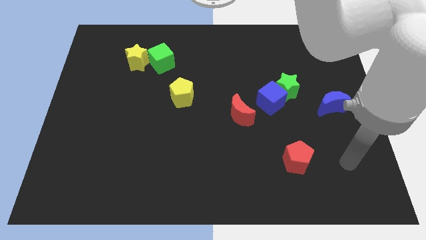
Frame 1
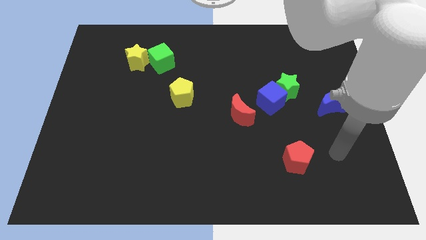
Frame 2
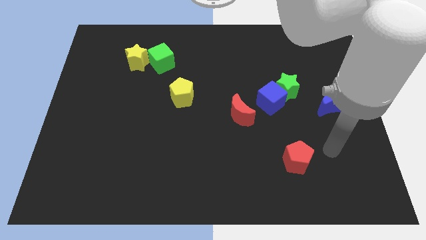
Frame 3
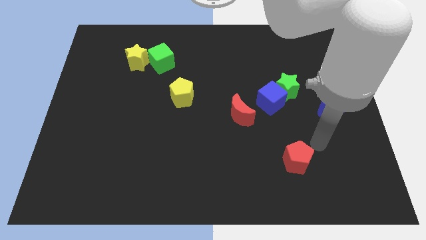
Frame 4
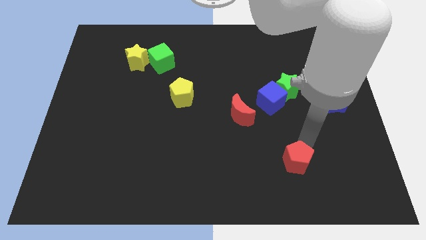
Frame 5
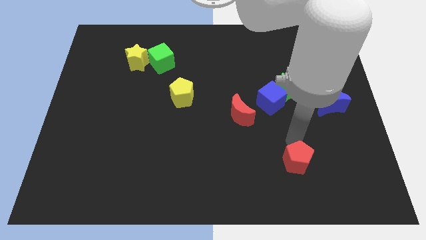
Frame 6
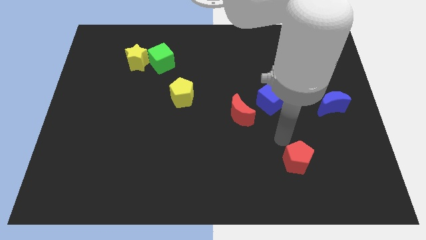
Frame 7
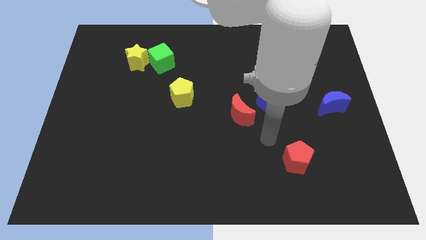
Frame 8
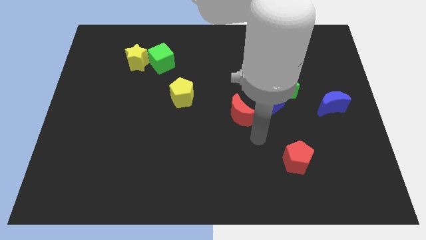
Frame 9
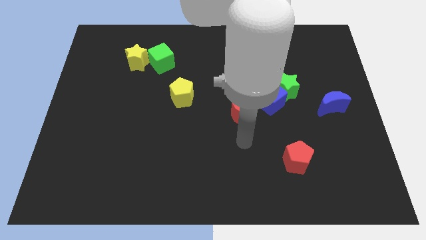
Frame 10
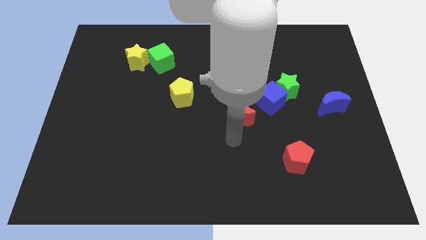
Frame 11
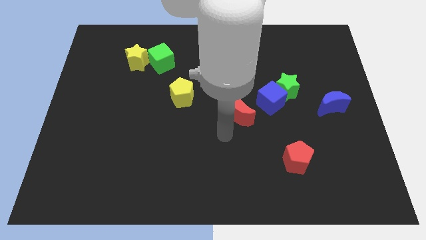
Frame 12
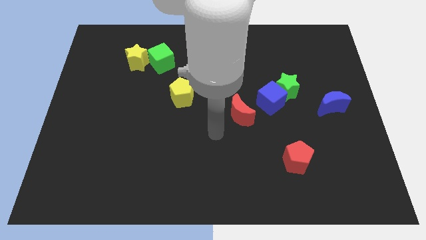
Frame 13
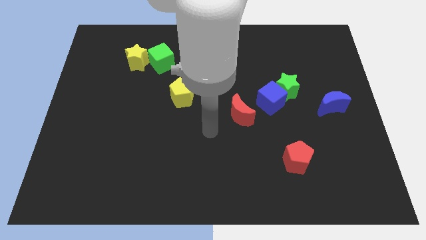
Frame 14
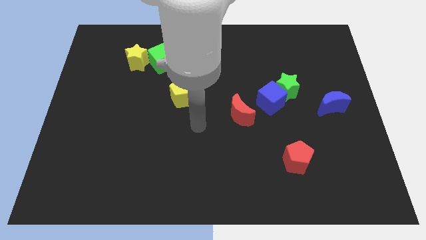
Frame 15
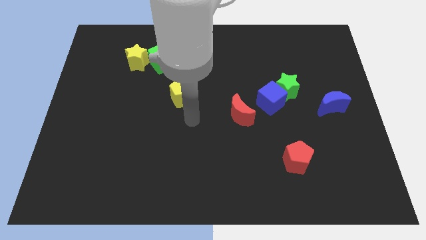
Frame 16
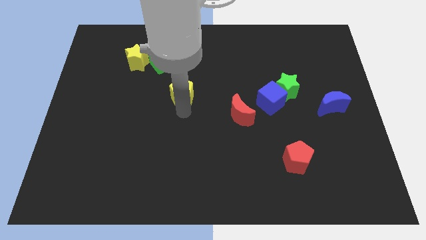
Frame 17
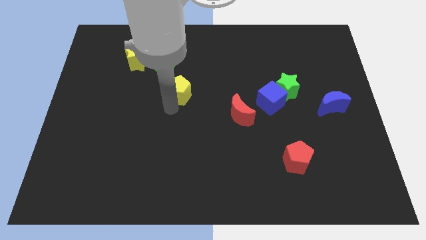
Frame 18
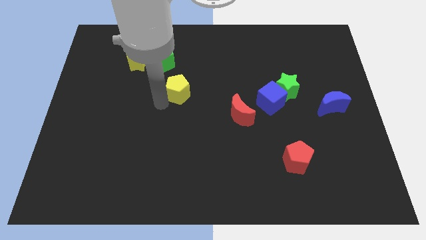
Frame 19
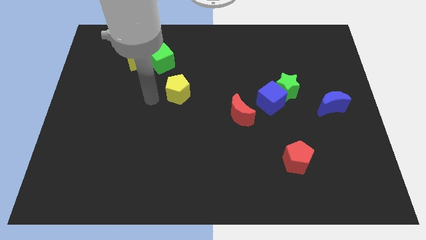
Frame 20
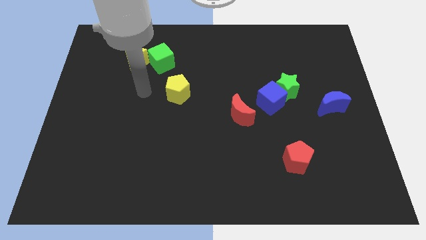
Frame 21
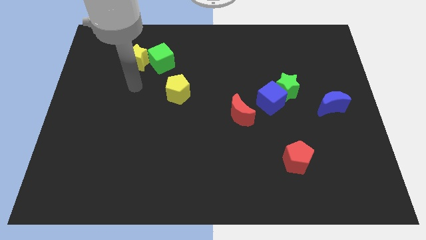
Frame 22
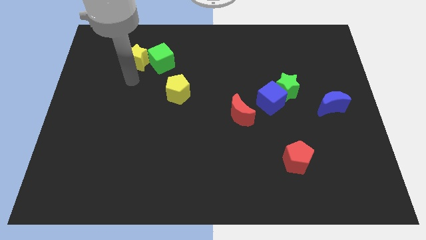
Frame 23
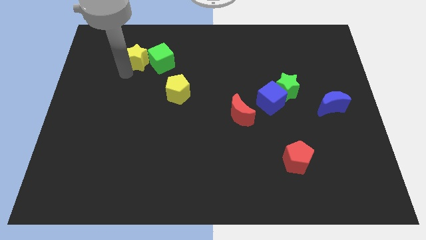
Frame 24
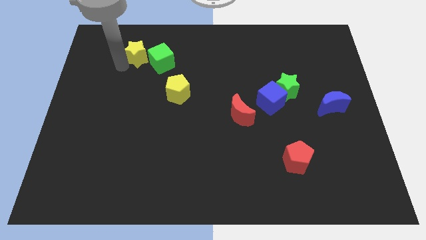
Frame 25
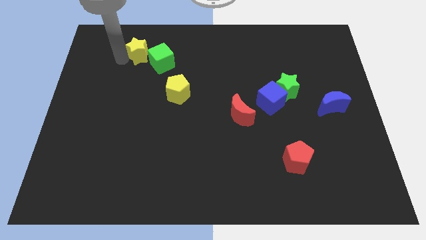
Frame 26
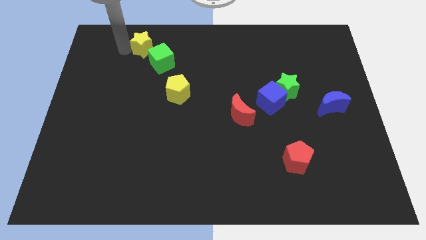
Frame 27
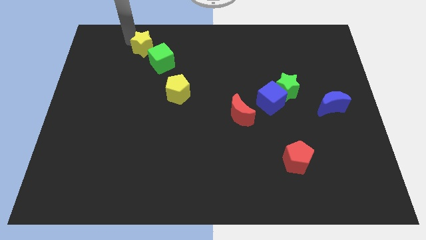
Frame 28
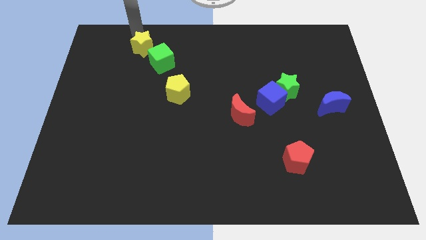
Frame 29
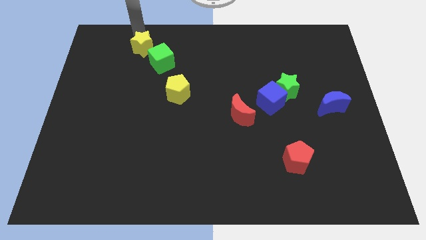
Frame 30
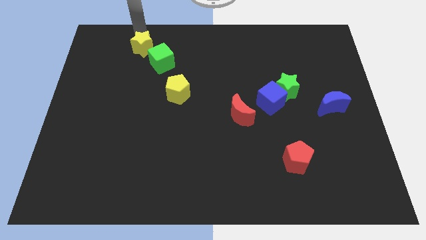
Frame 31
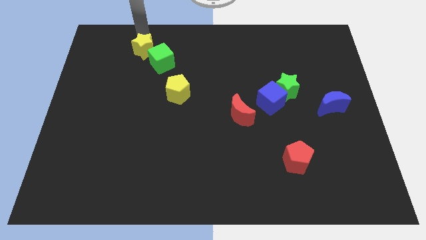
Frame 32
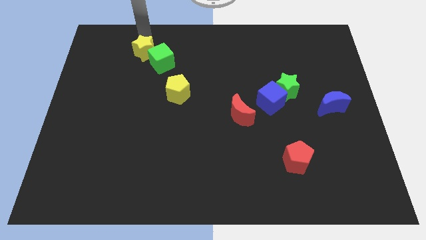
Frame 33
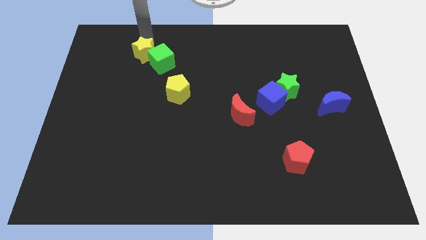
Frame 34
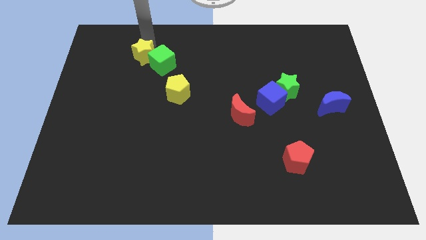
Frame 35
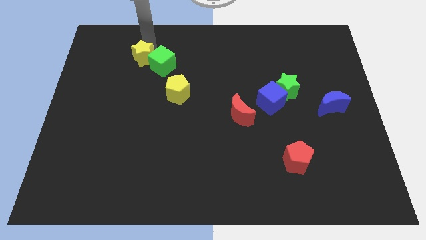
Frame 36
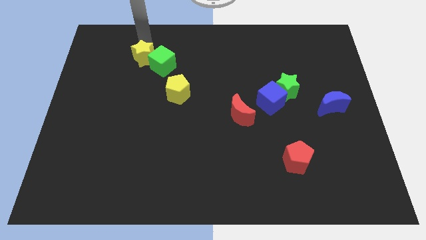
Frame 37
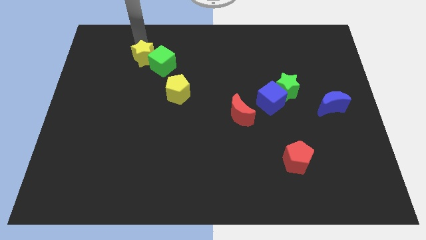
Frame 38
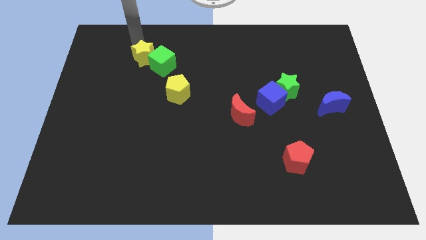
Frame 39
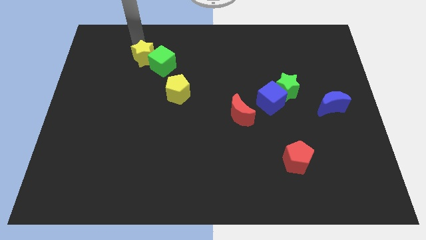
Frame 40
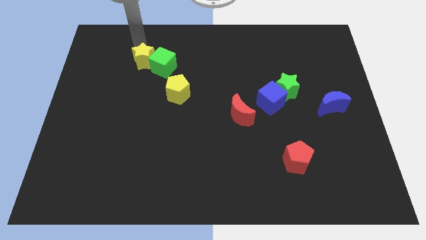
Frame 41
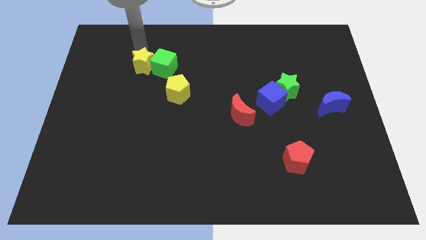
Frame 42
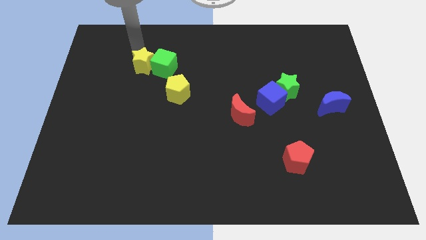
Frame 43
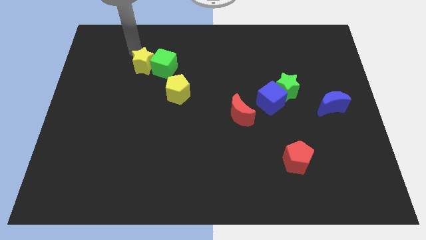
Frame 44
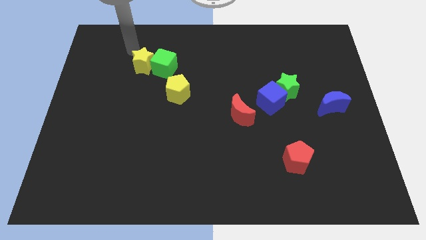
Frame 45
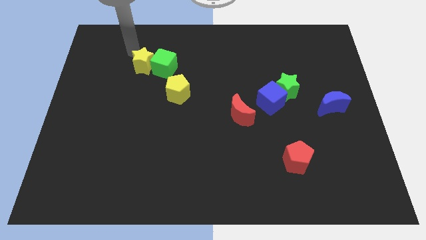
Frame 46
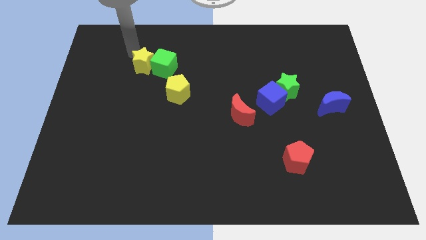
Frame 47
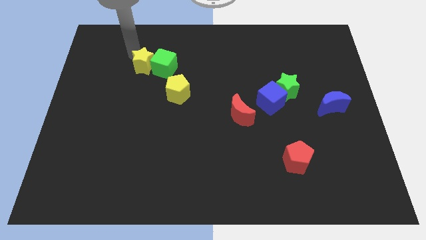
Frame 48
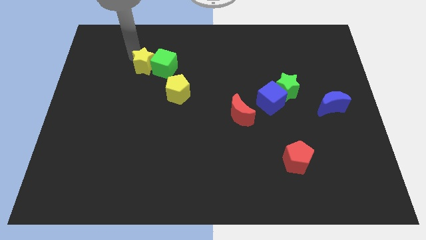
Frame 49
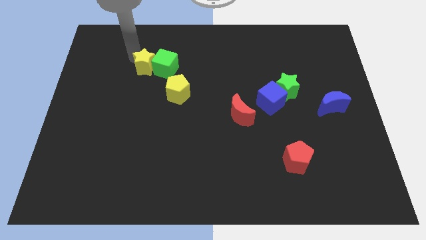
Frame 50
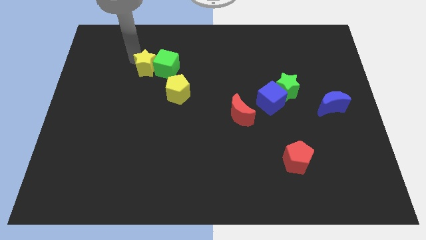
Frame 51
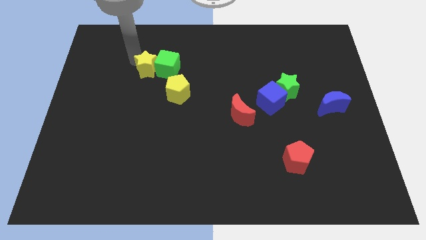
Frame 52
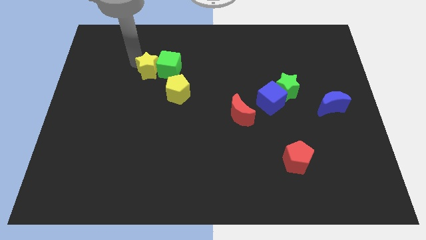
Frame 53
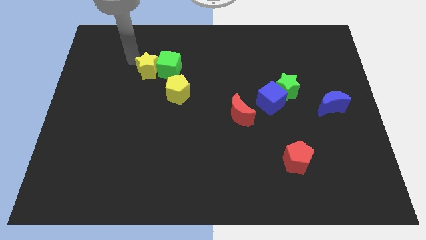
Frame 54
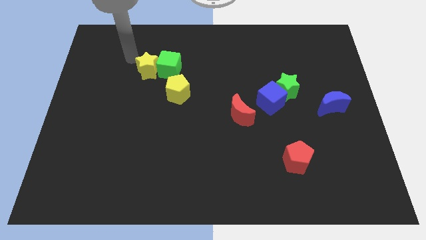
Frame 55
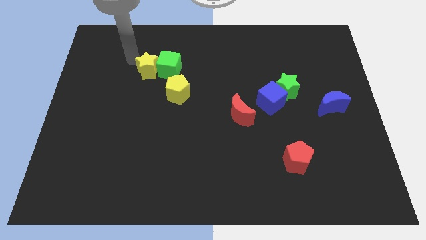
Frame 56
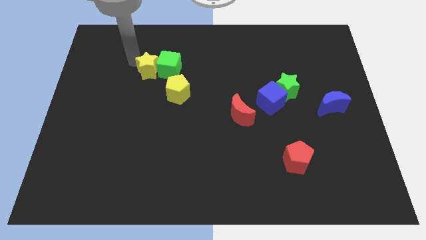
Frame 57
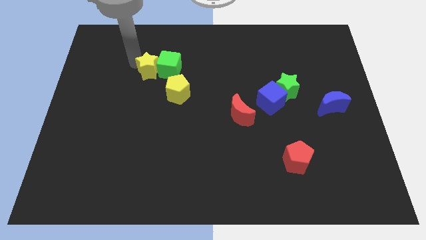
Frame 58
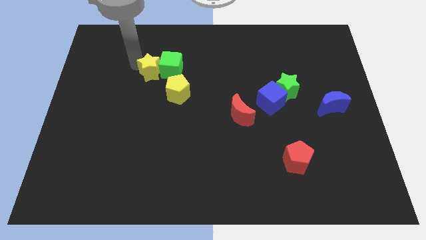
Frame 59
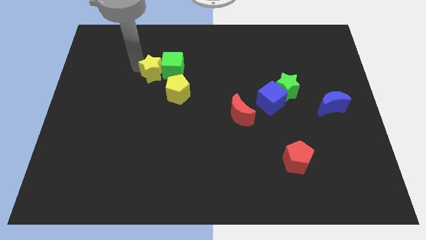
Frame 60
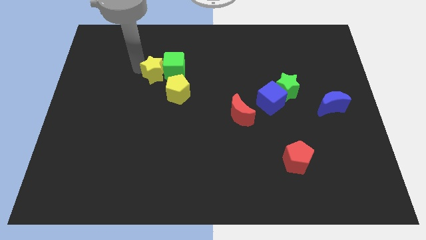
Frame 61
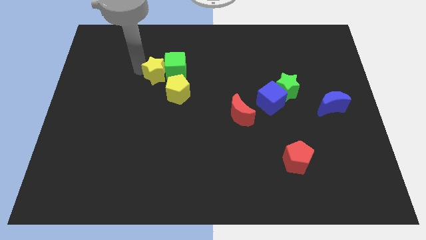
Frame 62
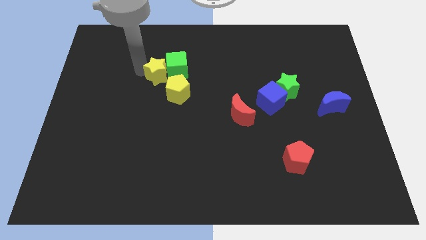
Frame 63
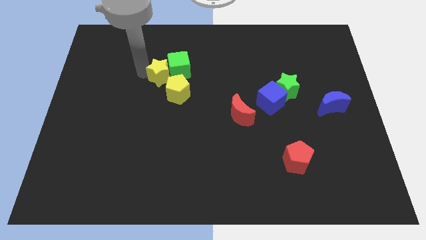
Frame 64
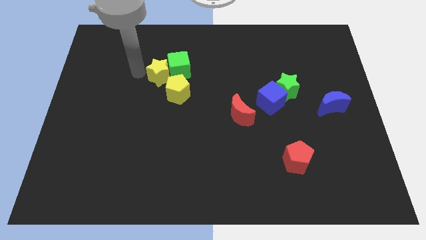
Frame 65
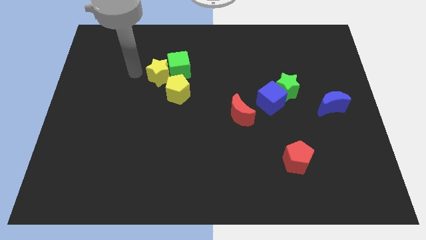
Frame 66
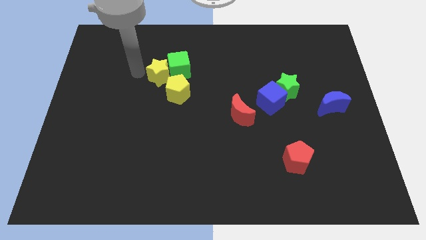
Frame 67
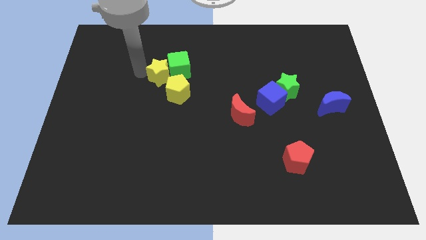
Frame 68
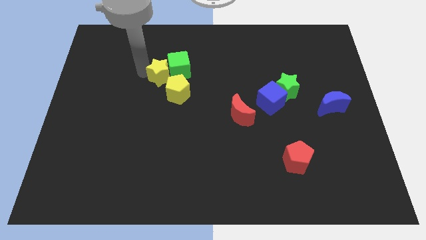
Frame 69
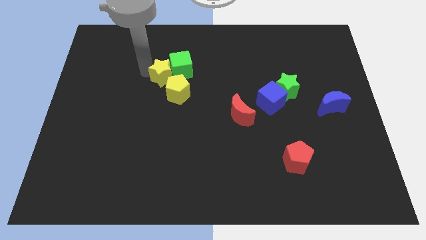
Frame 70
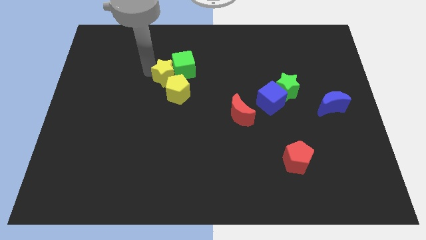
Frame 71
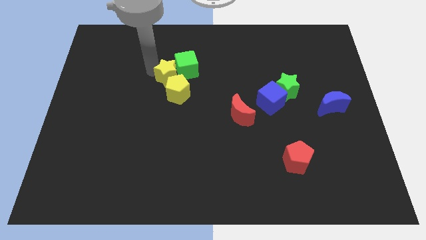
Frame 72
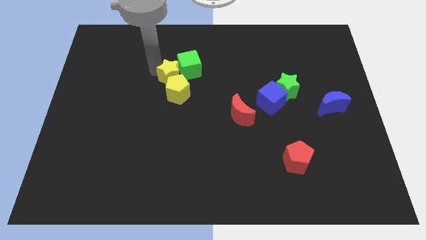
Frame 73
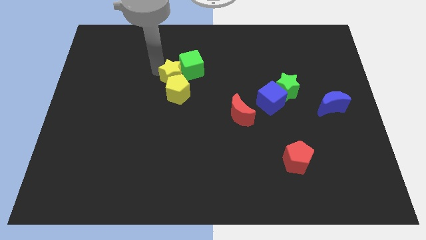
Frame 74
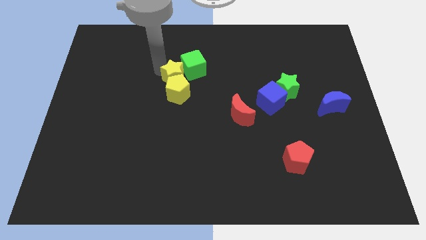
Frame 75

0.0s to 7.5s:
push the yellow star to the center

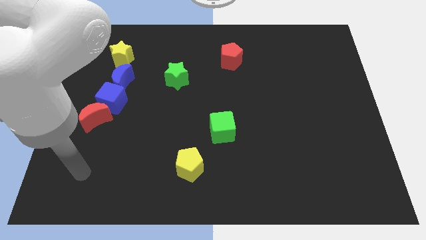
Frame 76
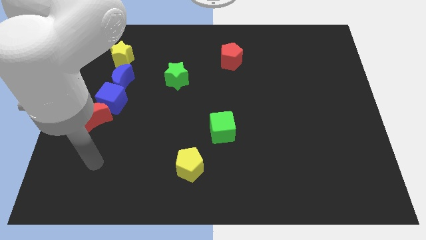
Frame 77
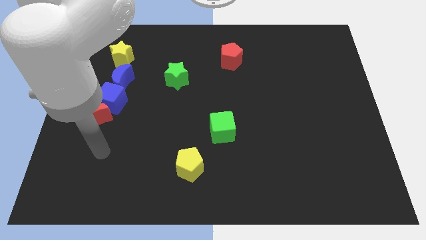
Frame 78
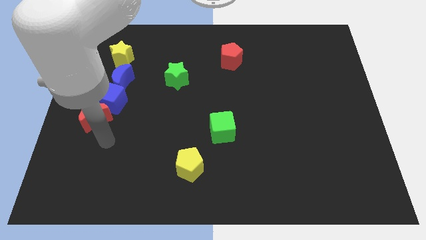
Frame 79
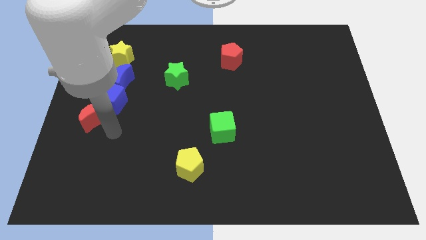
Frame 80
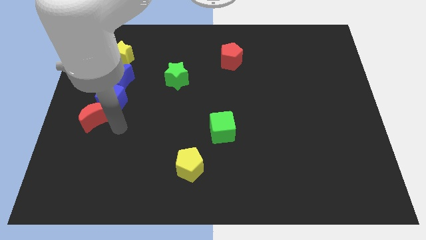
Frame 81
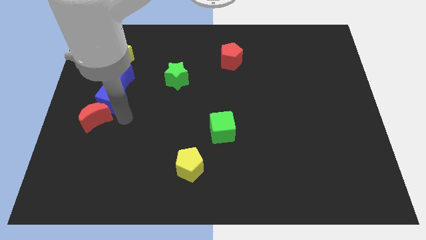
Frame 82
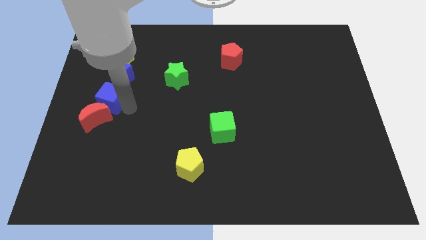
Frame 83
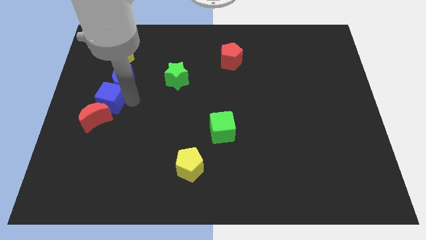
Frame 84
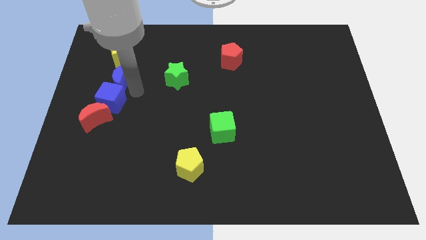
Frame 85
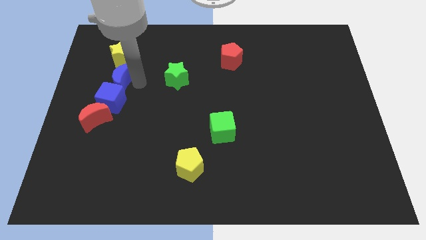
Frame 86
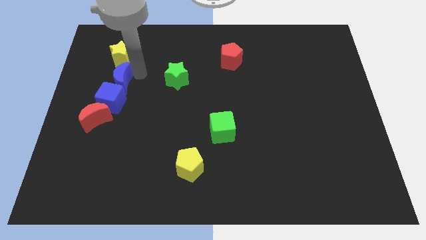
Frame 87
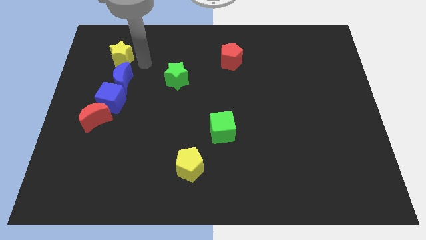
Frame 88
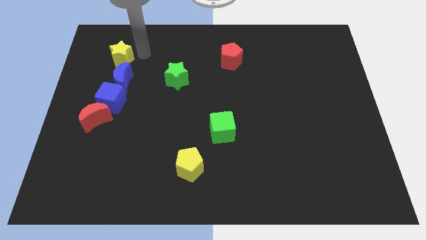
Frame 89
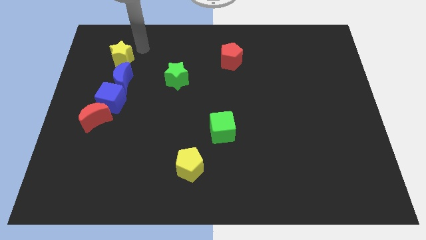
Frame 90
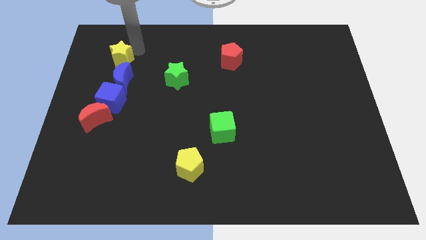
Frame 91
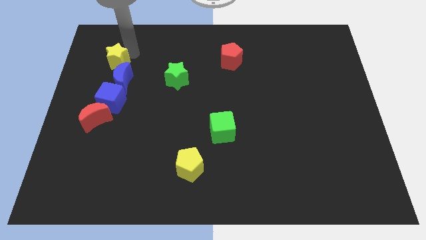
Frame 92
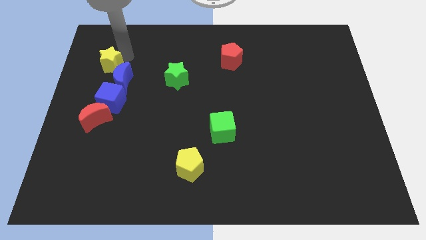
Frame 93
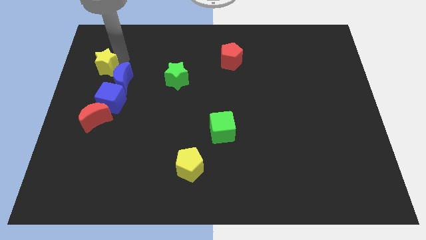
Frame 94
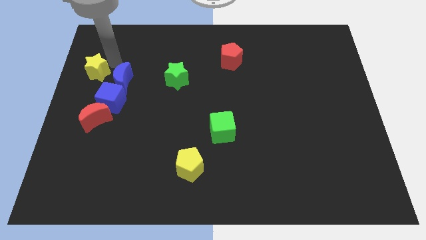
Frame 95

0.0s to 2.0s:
slide the yellow star to the center left
